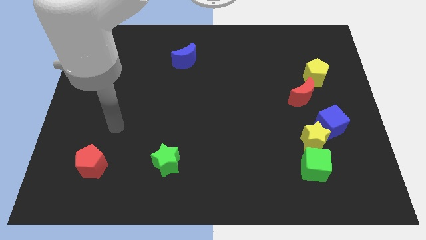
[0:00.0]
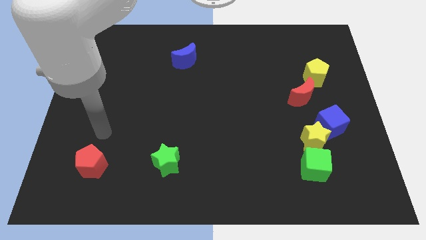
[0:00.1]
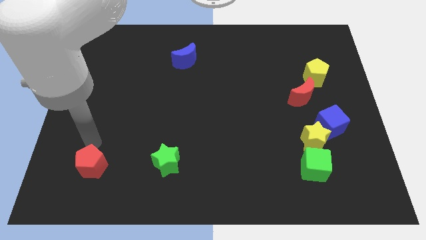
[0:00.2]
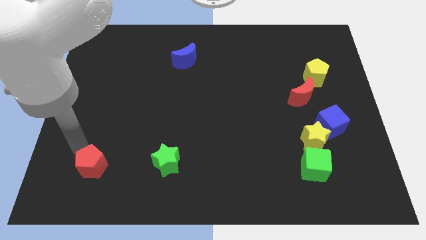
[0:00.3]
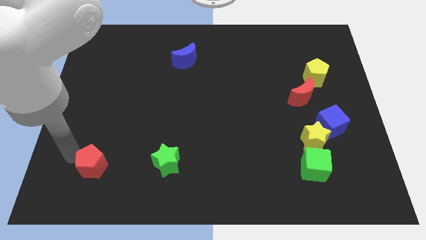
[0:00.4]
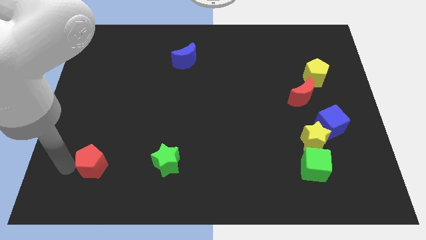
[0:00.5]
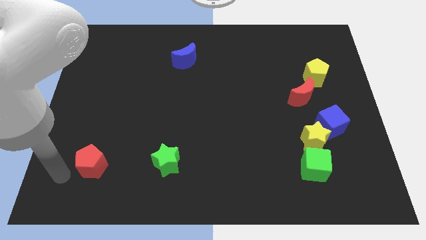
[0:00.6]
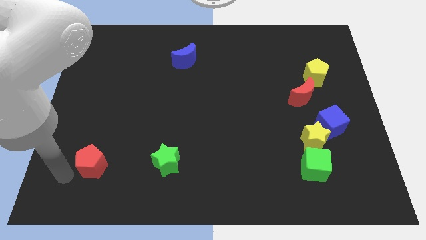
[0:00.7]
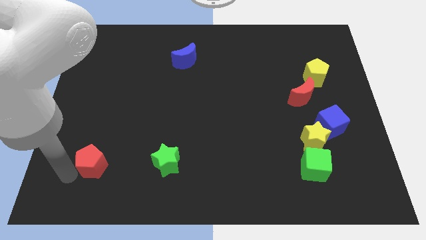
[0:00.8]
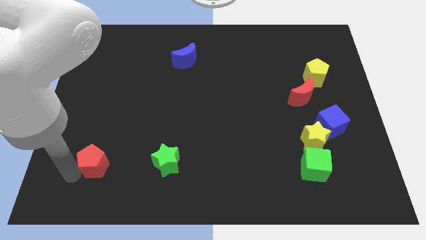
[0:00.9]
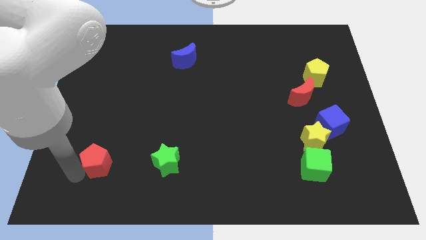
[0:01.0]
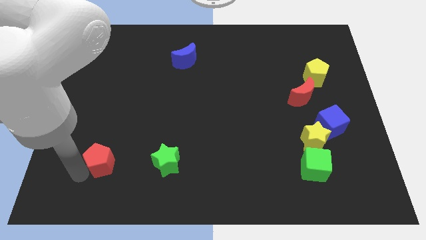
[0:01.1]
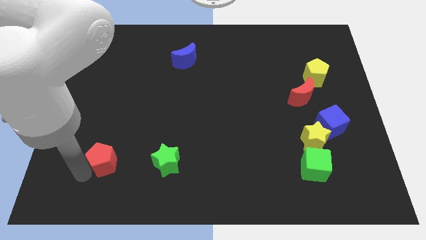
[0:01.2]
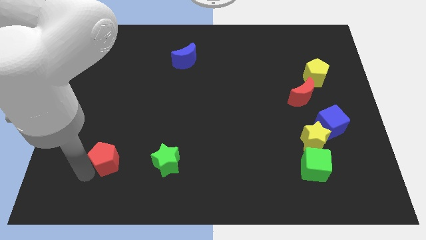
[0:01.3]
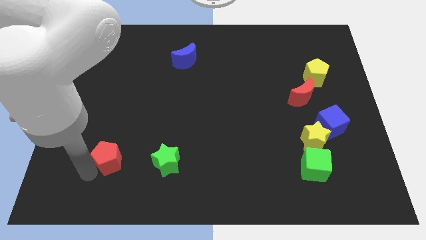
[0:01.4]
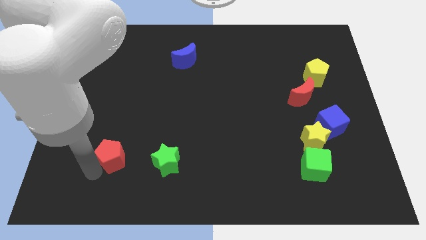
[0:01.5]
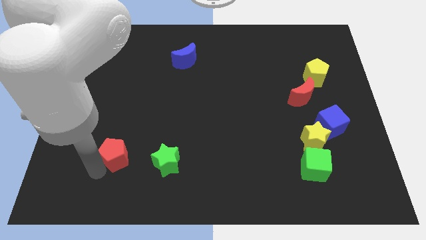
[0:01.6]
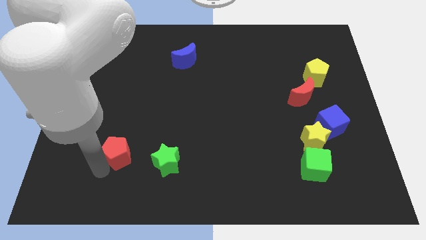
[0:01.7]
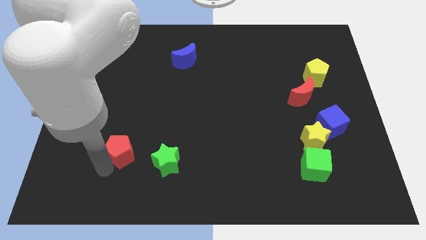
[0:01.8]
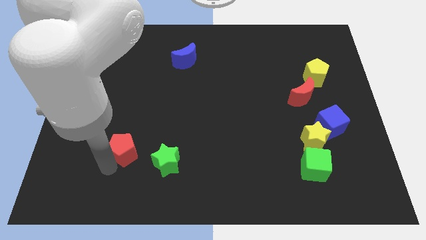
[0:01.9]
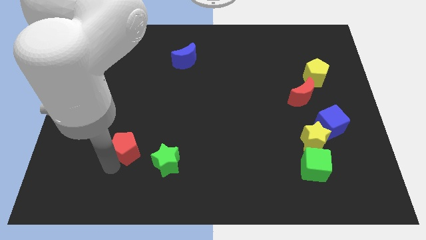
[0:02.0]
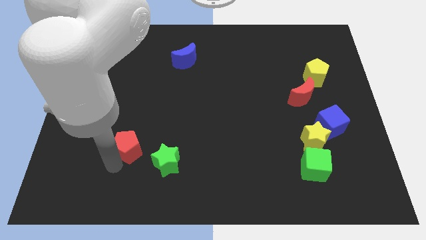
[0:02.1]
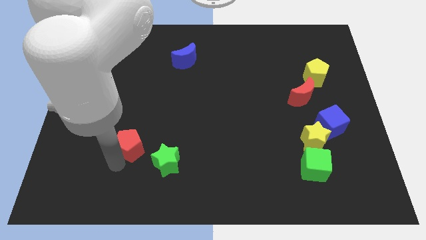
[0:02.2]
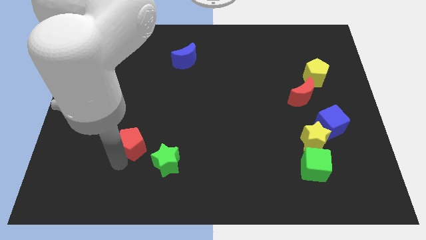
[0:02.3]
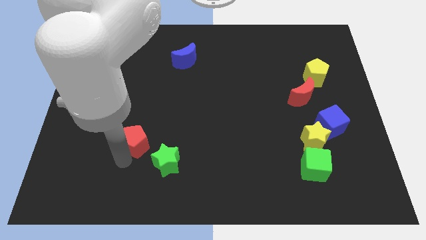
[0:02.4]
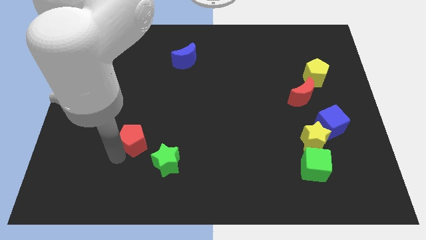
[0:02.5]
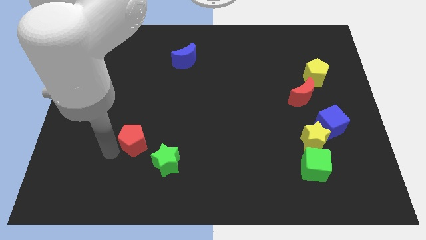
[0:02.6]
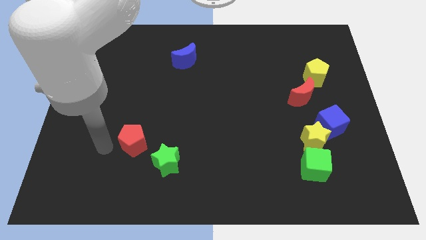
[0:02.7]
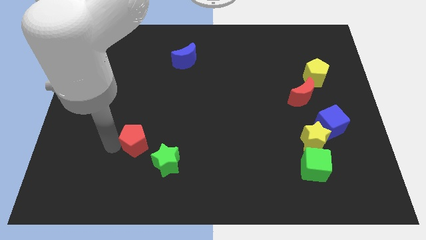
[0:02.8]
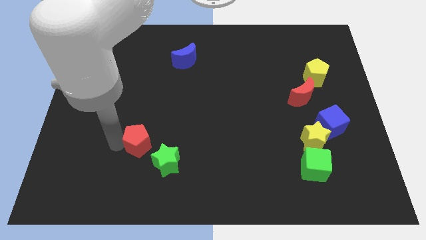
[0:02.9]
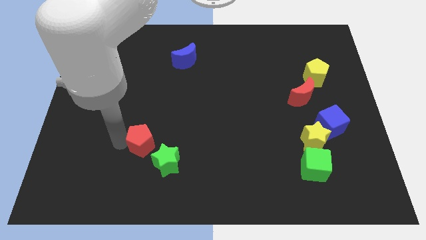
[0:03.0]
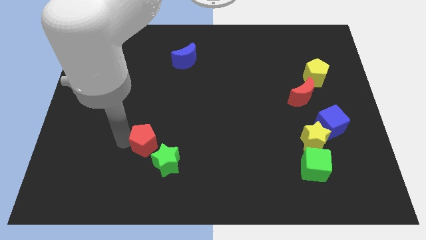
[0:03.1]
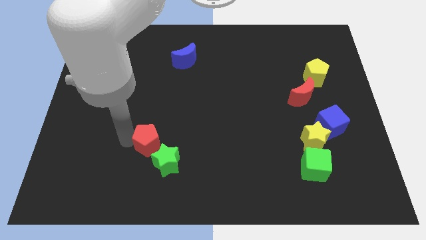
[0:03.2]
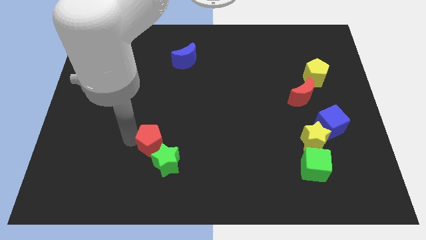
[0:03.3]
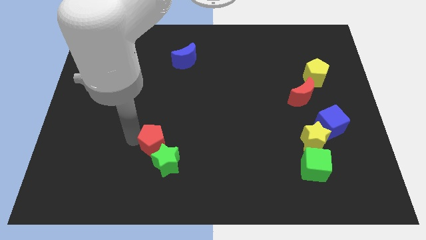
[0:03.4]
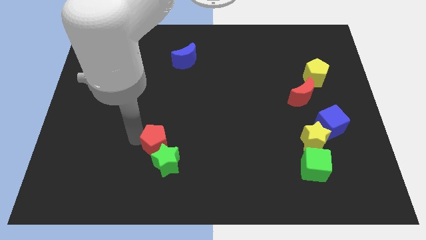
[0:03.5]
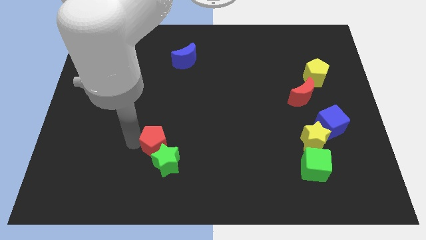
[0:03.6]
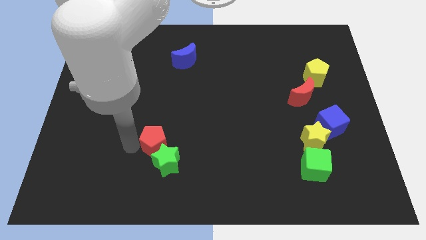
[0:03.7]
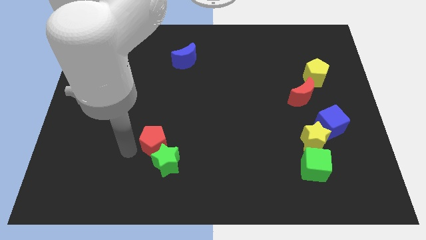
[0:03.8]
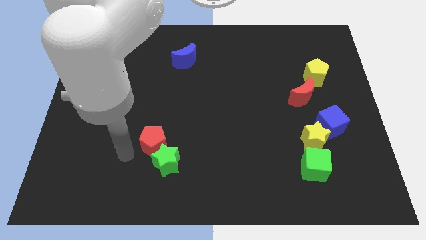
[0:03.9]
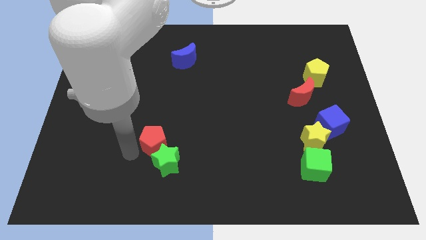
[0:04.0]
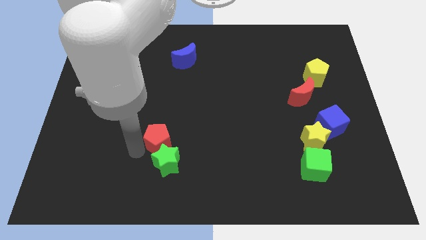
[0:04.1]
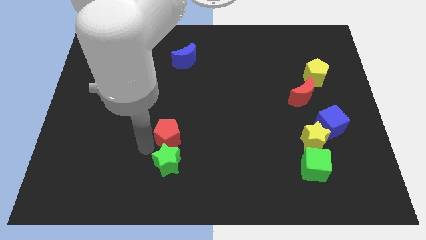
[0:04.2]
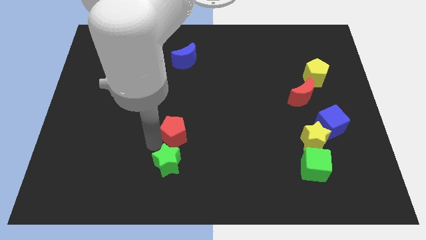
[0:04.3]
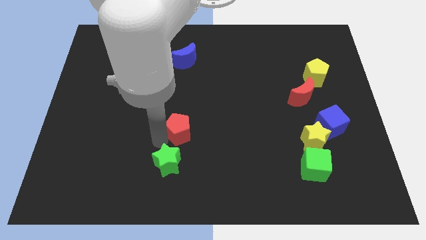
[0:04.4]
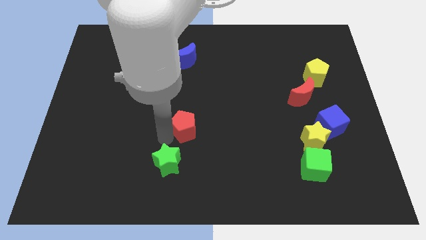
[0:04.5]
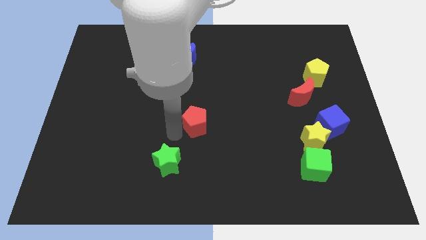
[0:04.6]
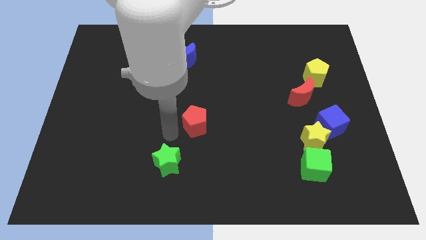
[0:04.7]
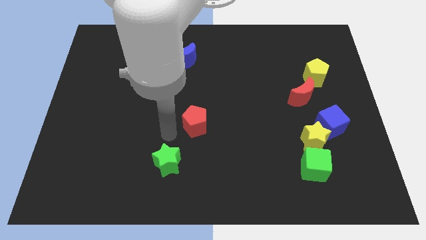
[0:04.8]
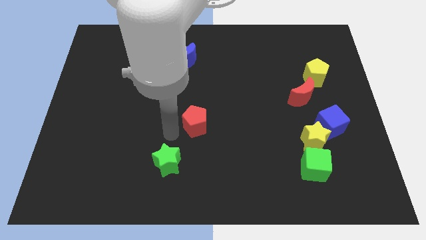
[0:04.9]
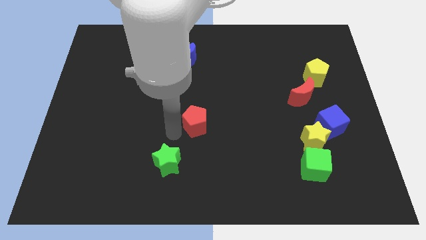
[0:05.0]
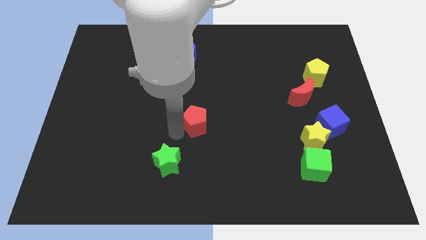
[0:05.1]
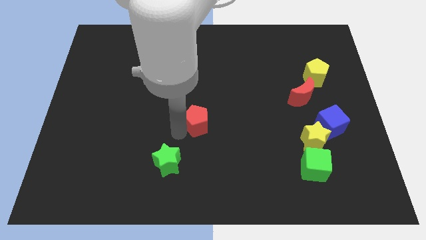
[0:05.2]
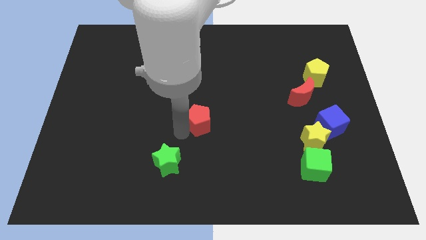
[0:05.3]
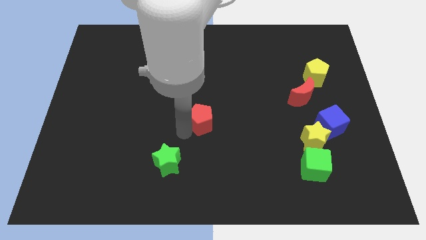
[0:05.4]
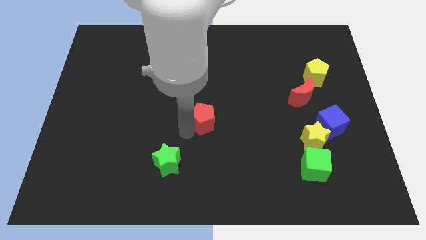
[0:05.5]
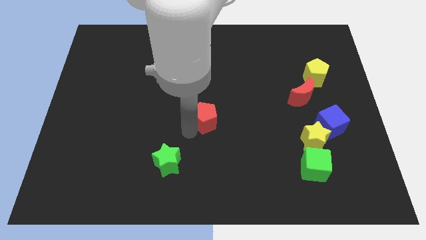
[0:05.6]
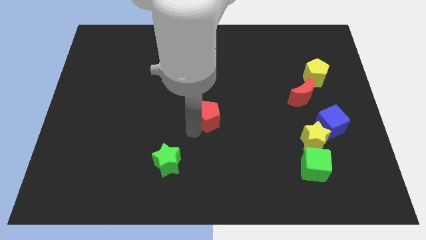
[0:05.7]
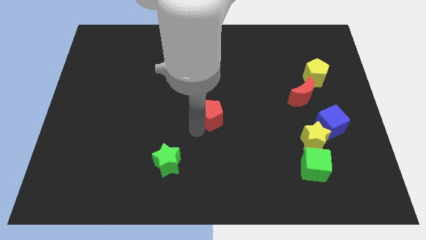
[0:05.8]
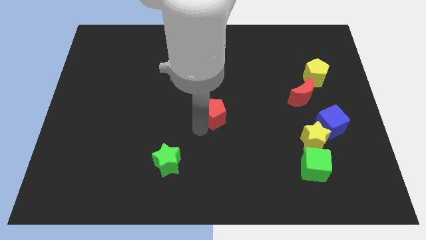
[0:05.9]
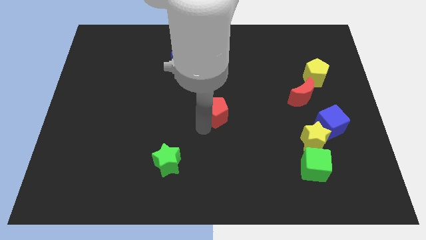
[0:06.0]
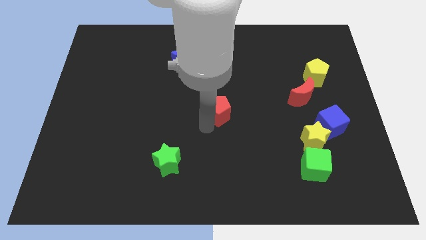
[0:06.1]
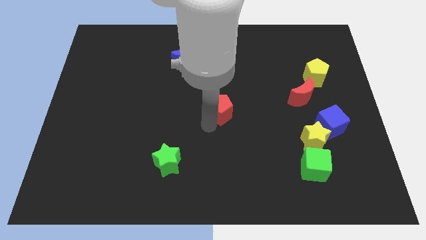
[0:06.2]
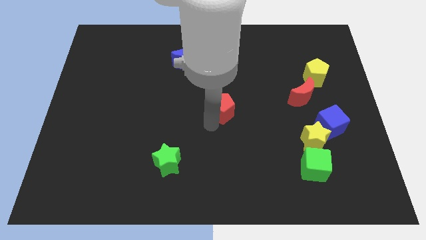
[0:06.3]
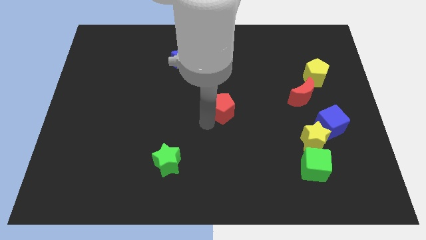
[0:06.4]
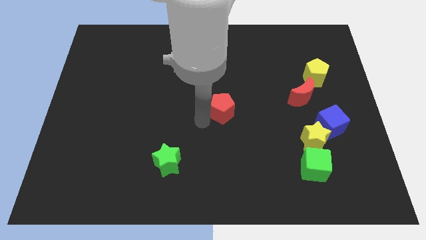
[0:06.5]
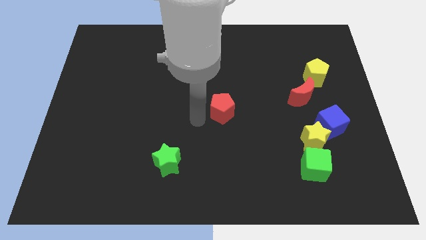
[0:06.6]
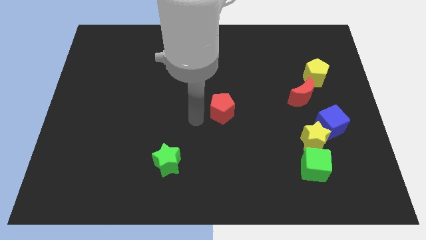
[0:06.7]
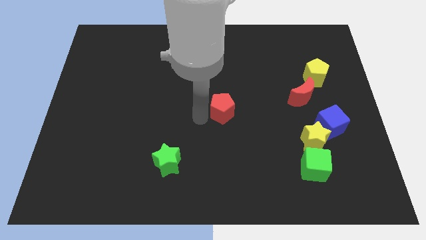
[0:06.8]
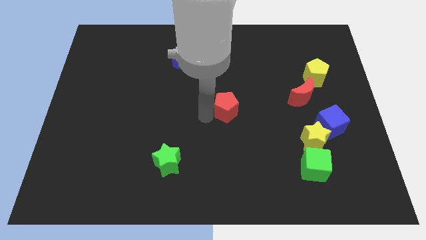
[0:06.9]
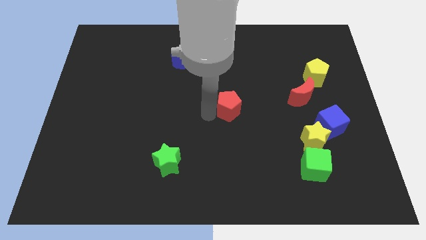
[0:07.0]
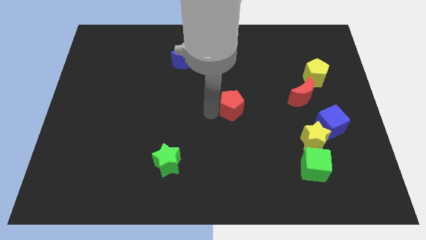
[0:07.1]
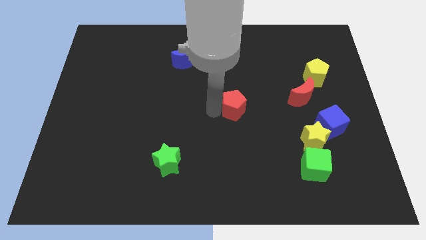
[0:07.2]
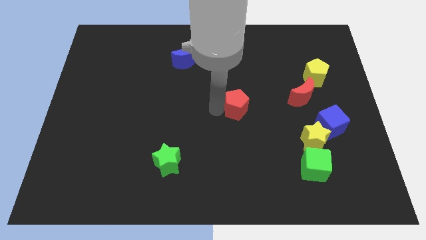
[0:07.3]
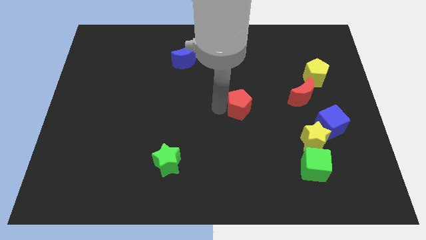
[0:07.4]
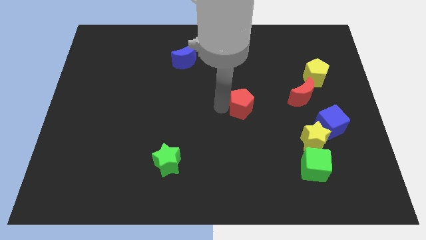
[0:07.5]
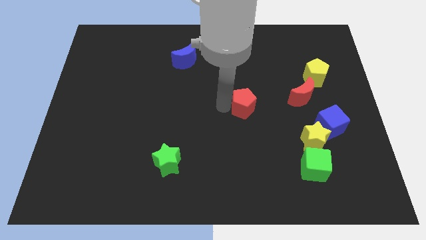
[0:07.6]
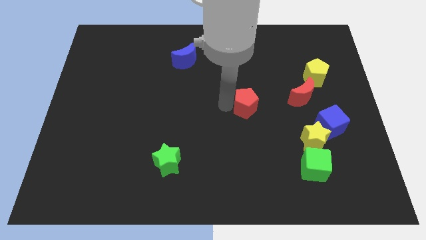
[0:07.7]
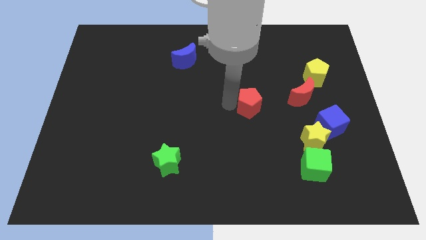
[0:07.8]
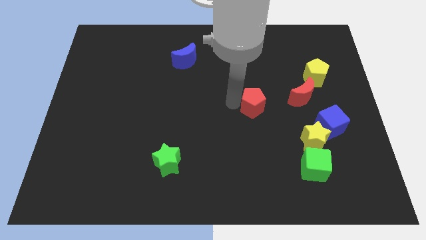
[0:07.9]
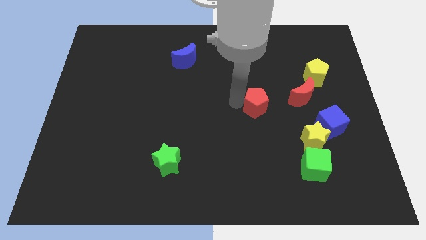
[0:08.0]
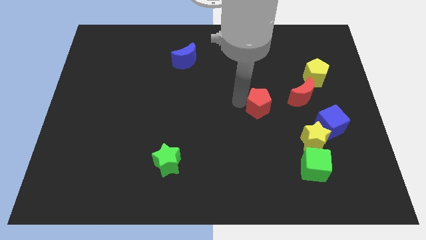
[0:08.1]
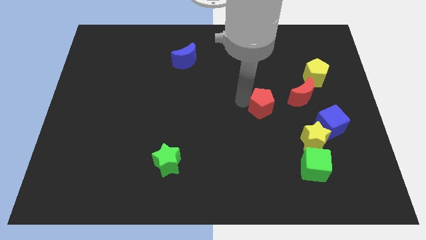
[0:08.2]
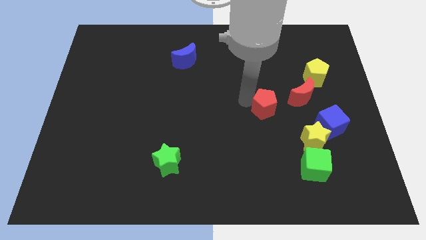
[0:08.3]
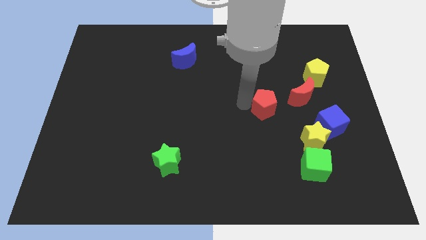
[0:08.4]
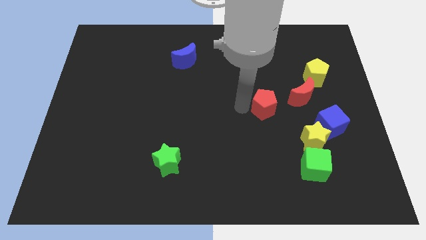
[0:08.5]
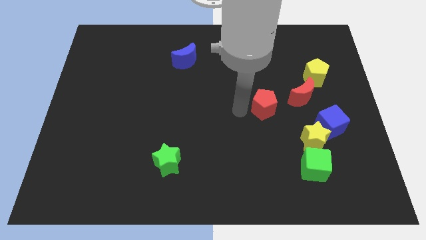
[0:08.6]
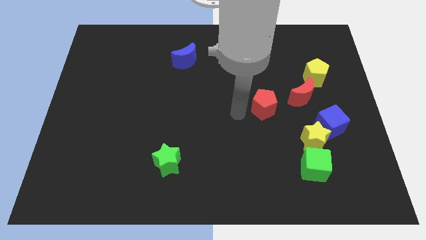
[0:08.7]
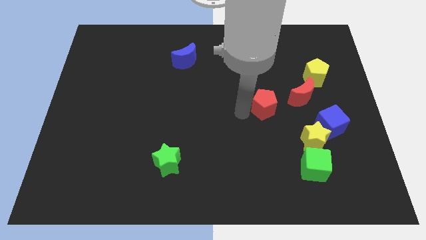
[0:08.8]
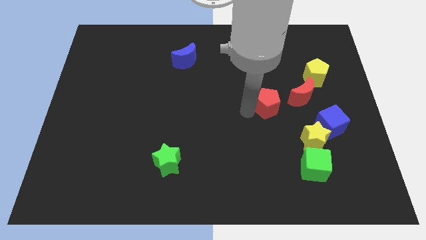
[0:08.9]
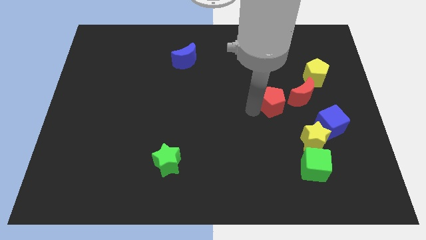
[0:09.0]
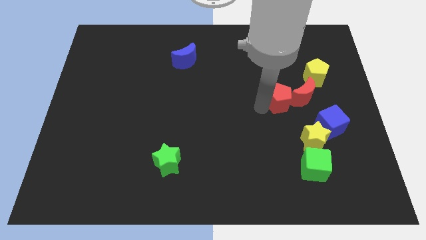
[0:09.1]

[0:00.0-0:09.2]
push the red pentagon close to the red moon
